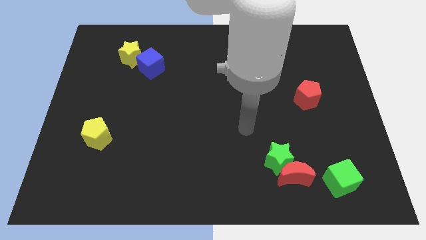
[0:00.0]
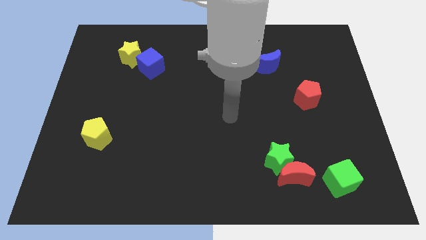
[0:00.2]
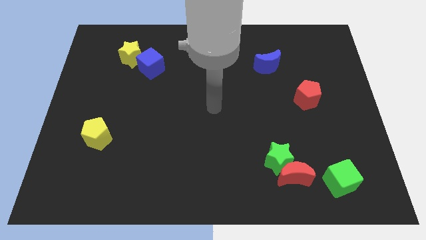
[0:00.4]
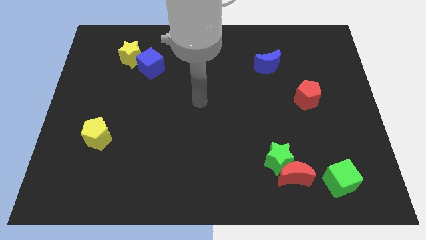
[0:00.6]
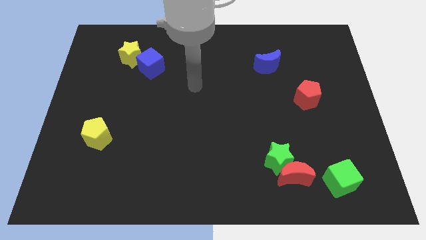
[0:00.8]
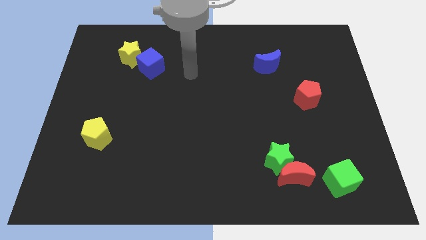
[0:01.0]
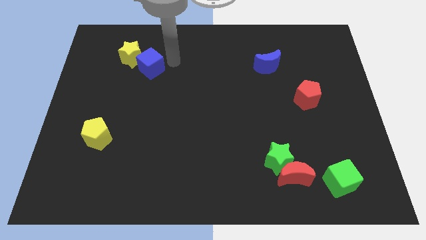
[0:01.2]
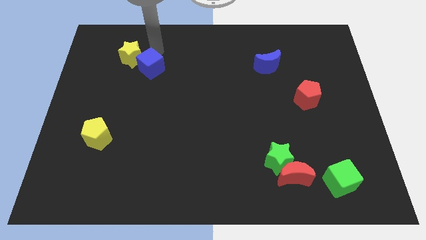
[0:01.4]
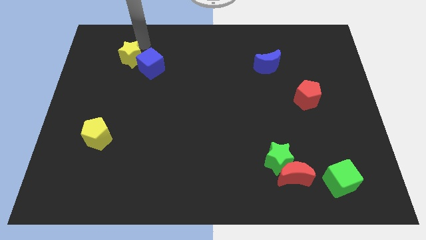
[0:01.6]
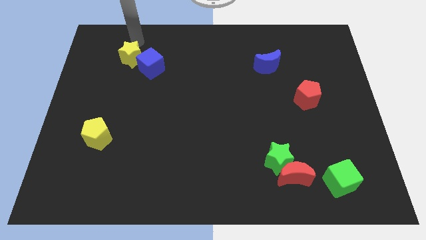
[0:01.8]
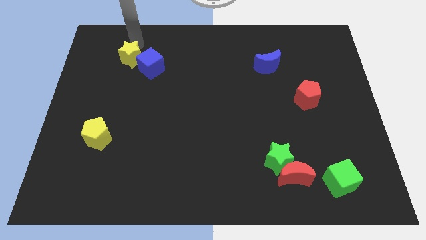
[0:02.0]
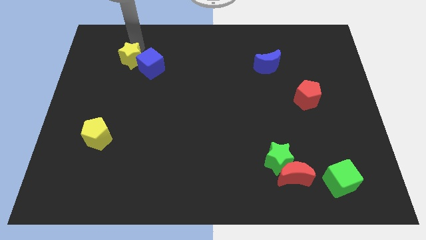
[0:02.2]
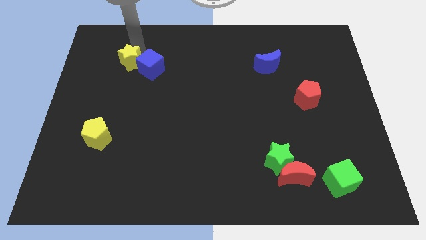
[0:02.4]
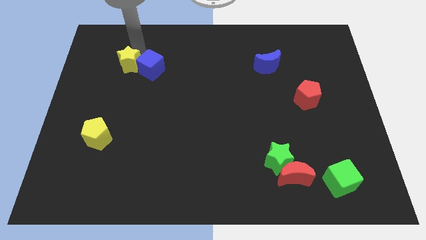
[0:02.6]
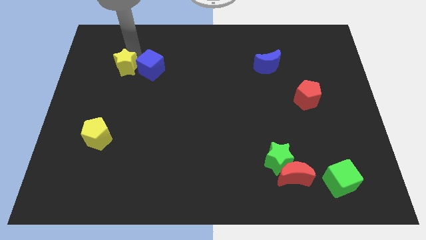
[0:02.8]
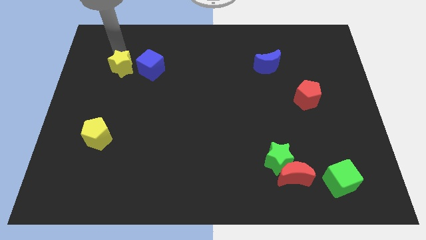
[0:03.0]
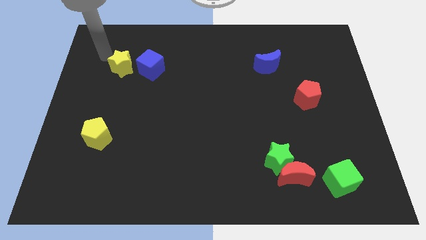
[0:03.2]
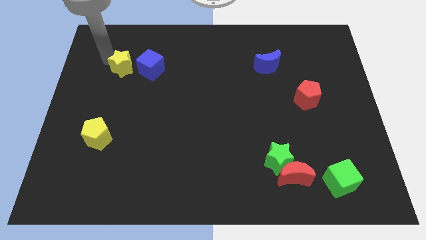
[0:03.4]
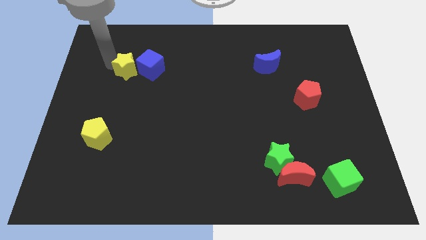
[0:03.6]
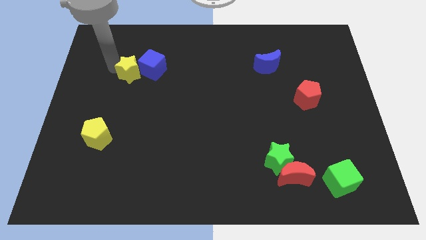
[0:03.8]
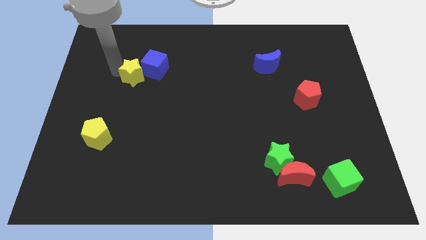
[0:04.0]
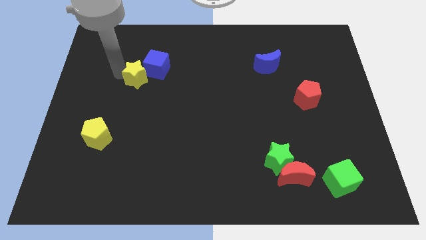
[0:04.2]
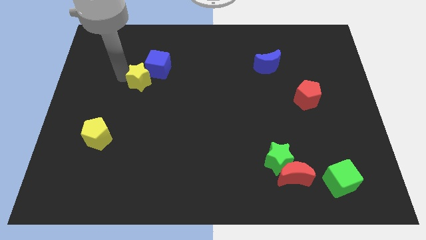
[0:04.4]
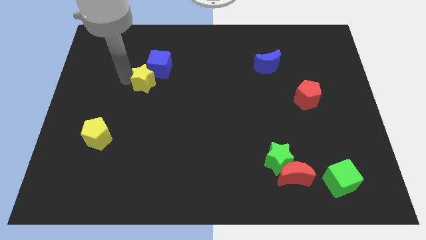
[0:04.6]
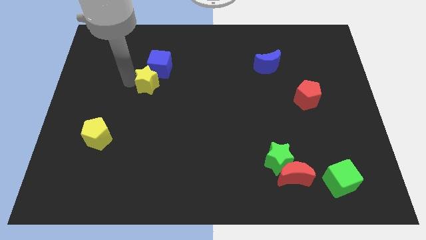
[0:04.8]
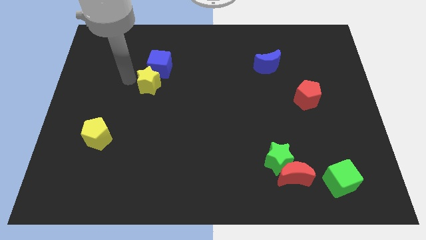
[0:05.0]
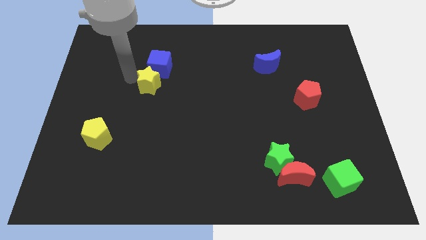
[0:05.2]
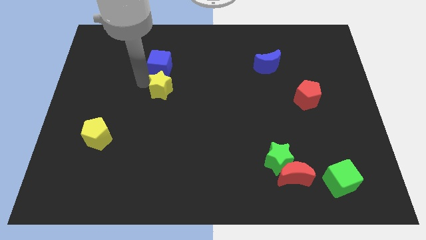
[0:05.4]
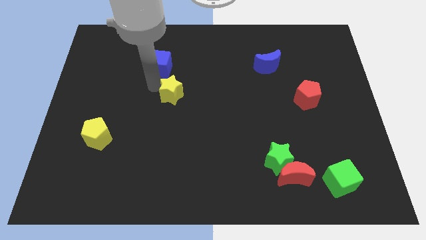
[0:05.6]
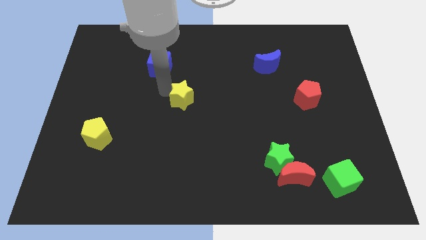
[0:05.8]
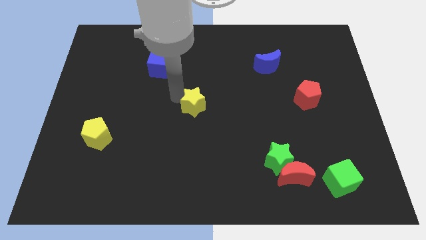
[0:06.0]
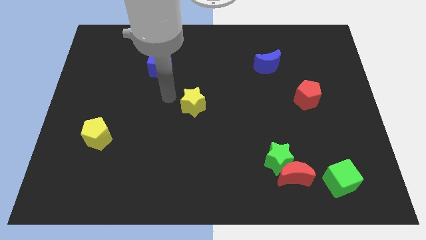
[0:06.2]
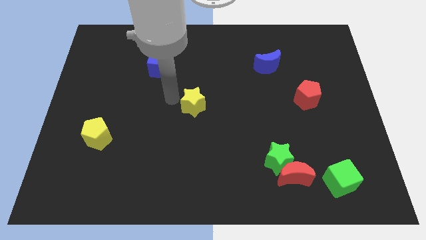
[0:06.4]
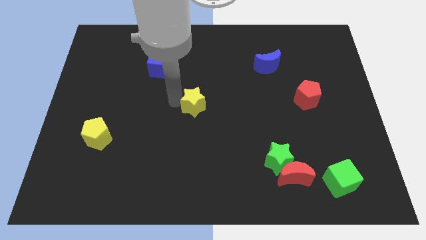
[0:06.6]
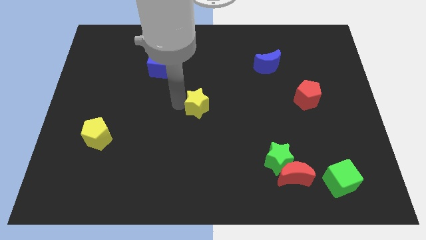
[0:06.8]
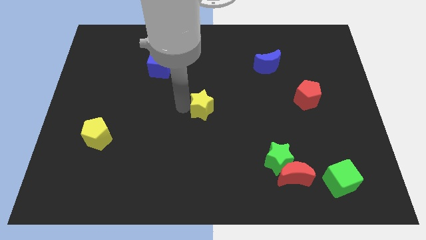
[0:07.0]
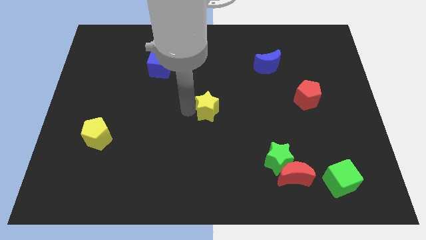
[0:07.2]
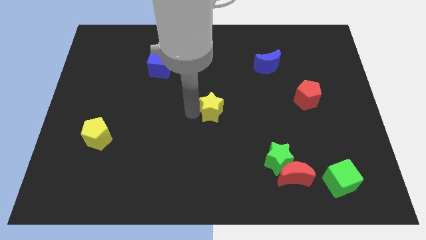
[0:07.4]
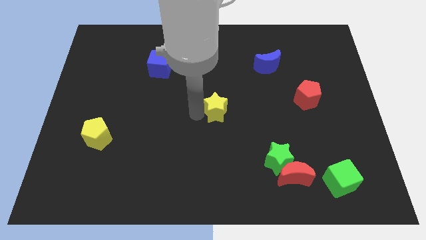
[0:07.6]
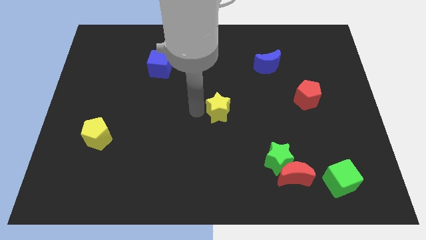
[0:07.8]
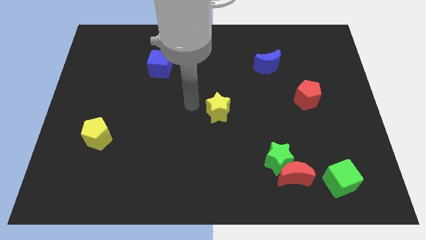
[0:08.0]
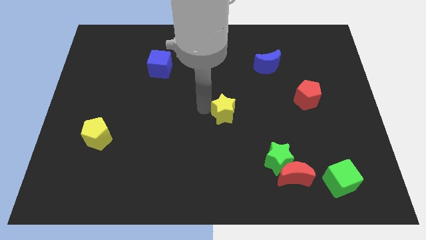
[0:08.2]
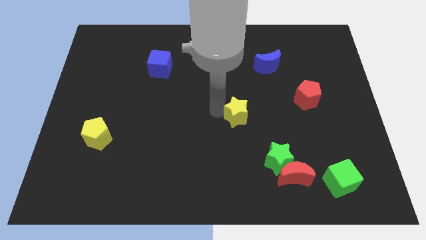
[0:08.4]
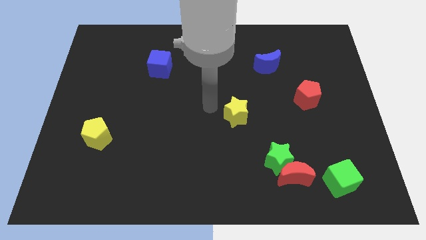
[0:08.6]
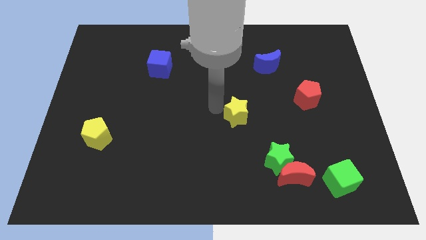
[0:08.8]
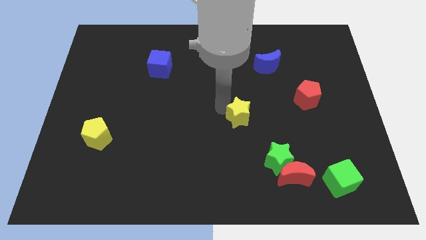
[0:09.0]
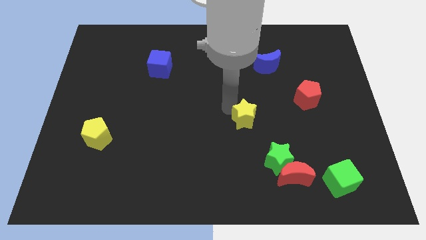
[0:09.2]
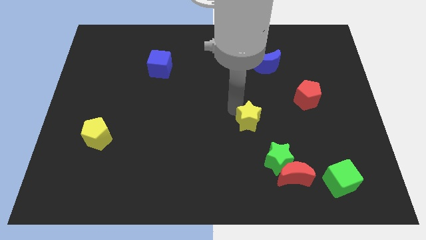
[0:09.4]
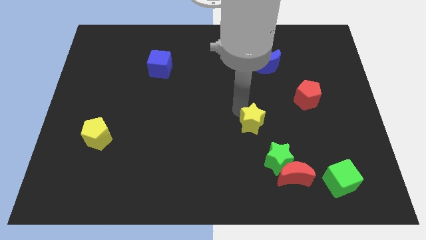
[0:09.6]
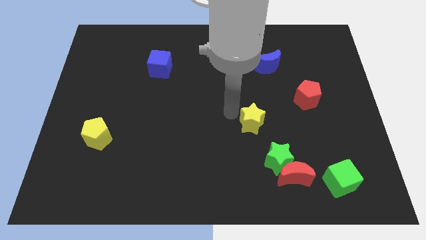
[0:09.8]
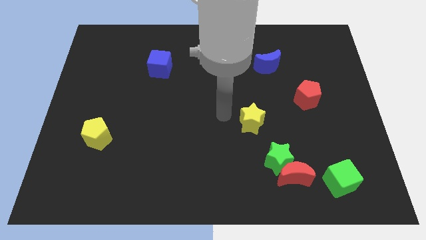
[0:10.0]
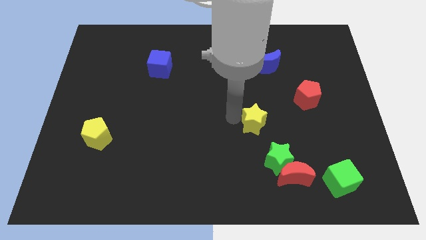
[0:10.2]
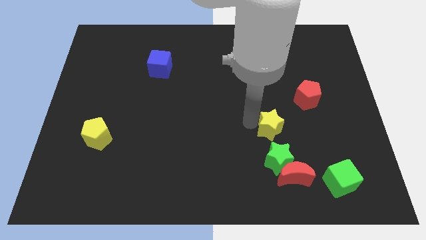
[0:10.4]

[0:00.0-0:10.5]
put the yellow star above the red moon
